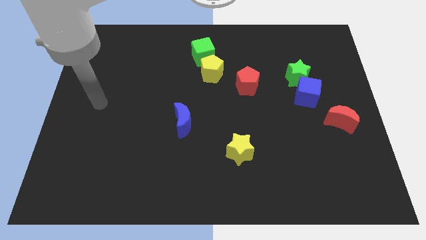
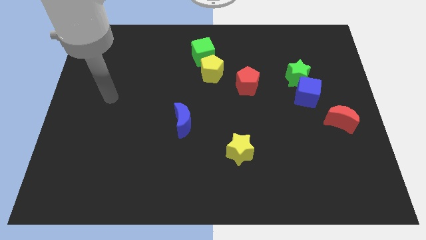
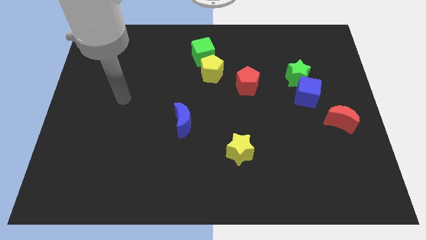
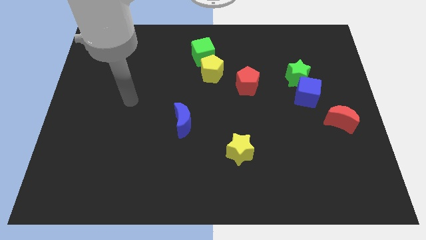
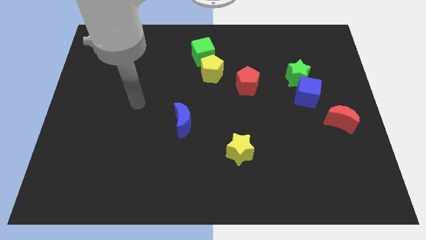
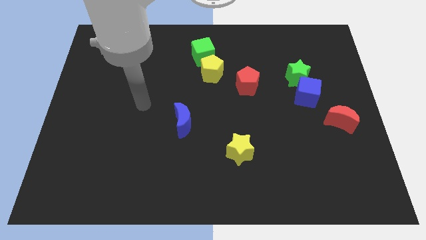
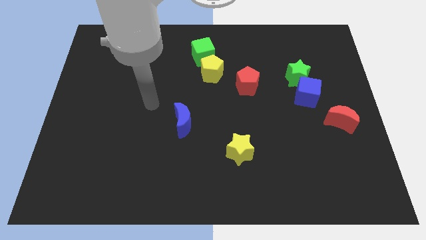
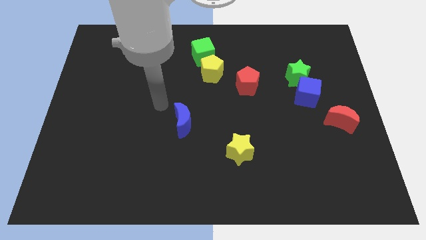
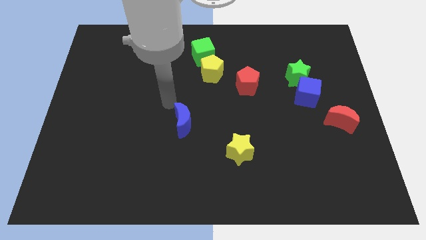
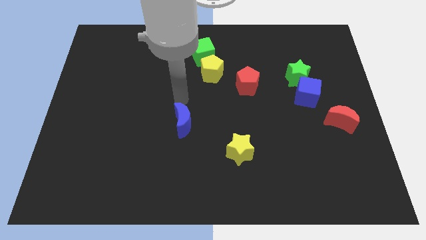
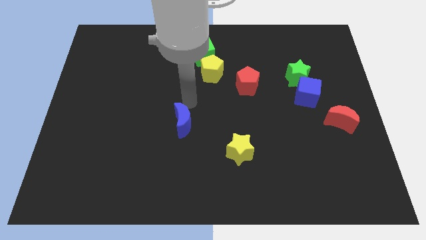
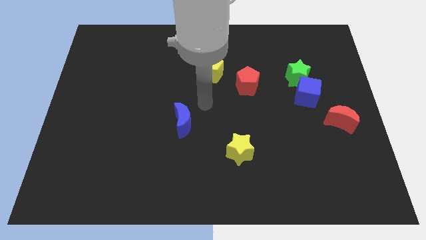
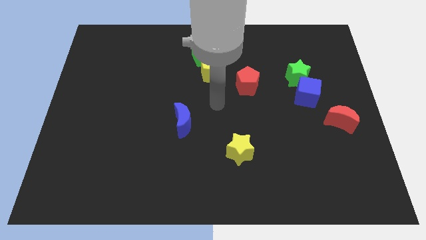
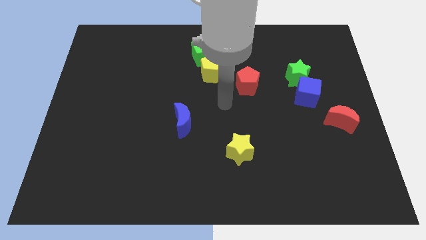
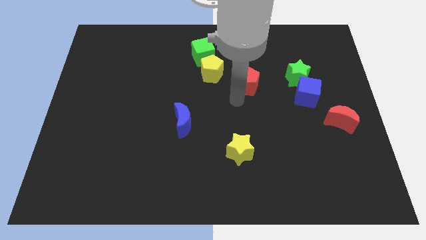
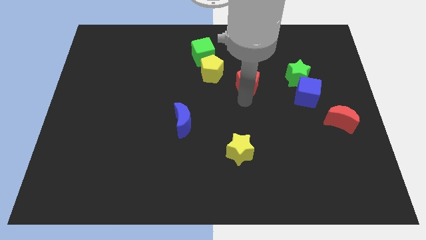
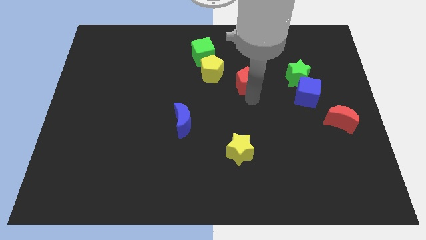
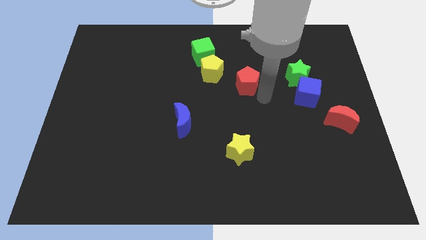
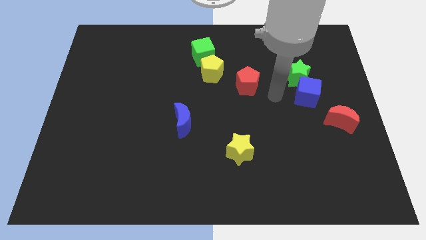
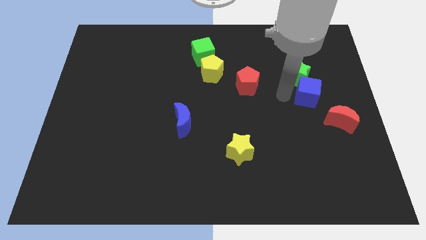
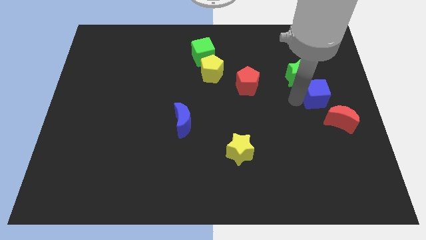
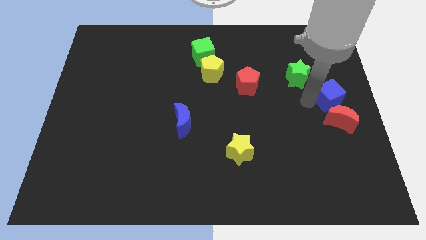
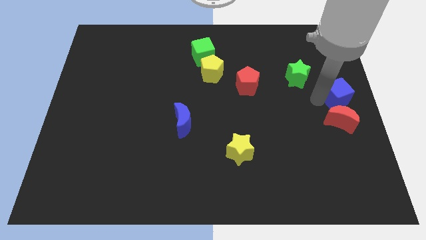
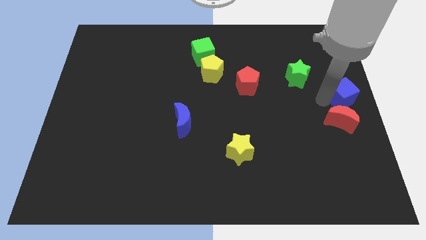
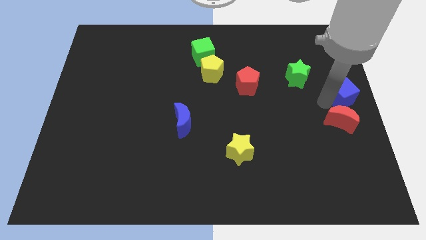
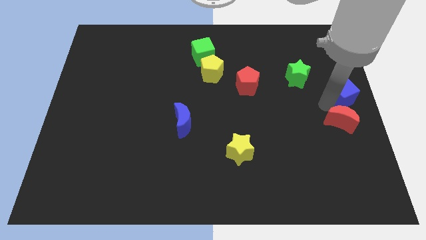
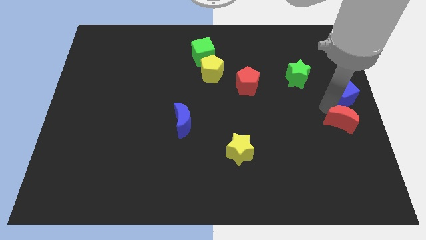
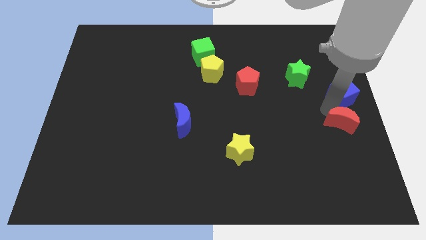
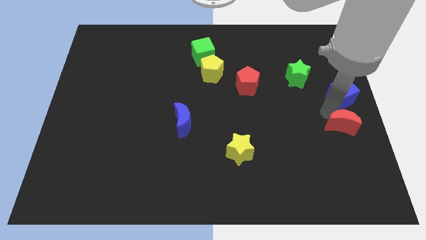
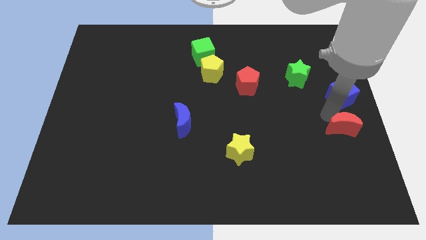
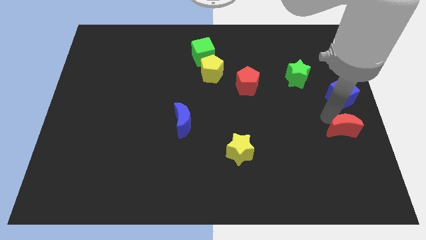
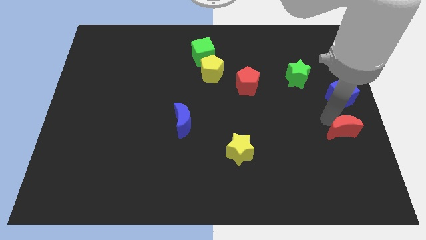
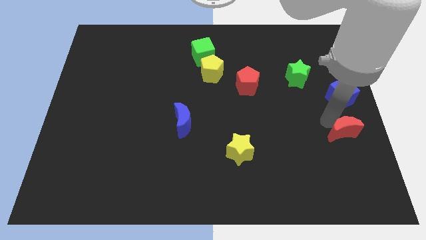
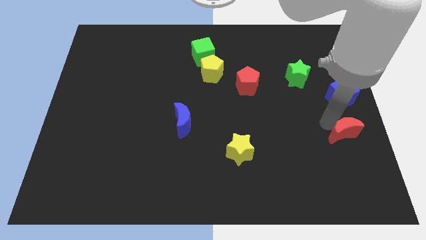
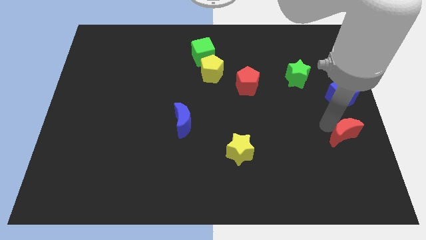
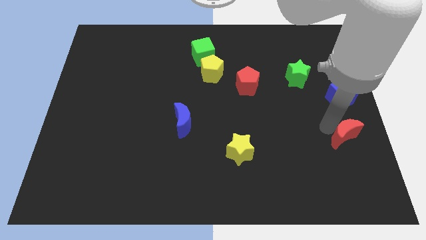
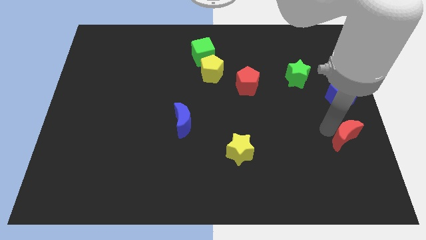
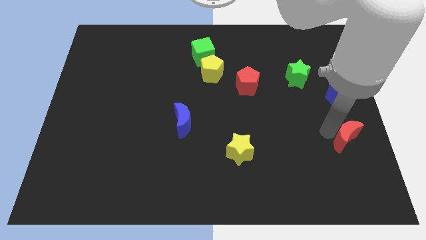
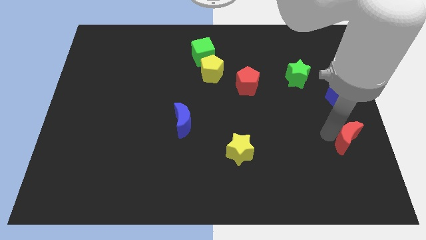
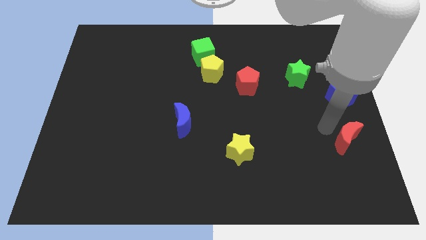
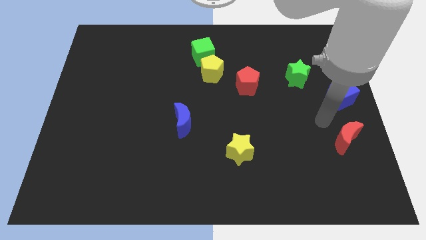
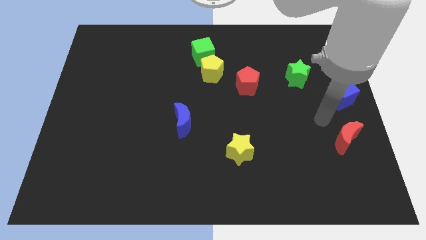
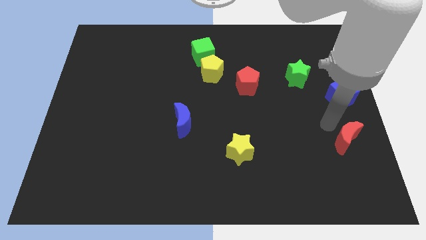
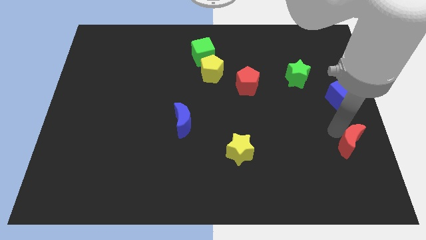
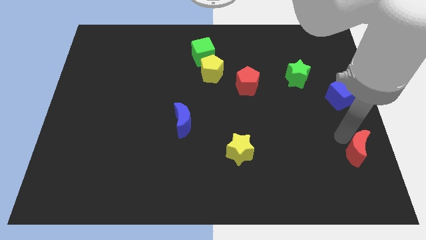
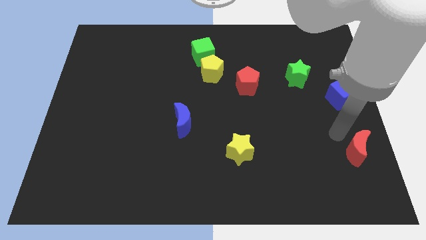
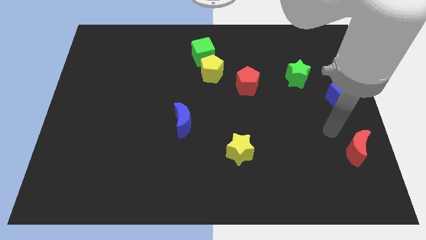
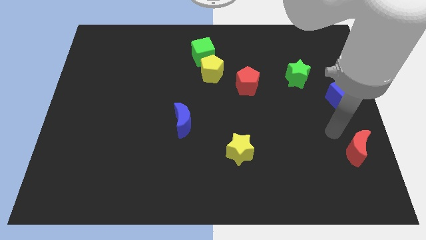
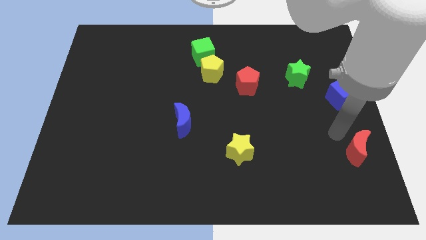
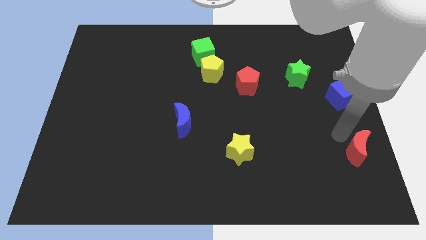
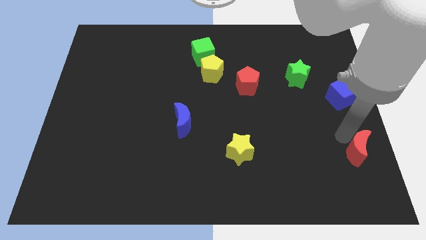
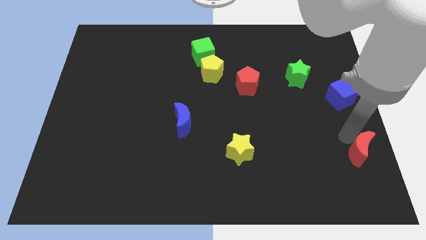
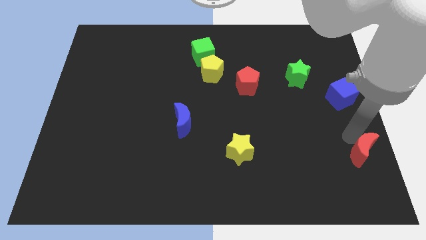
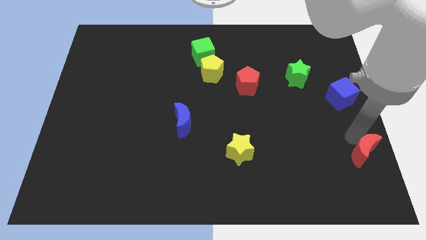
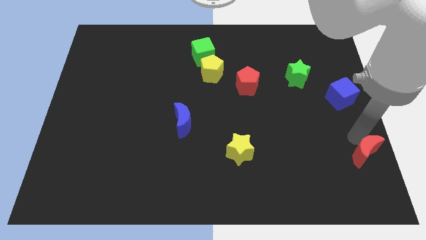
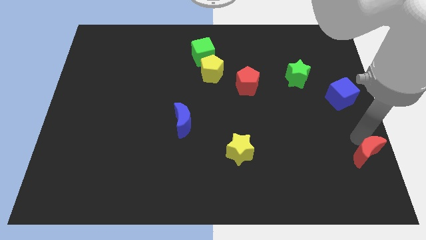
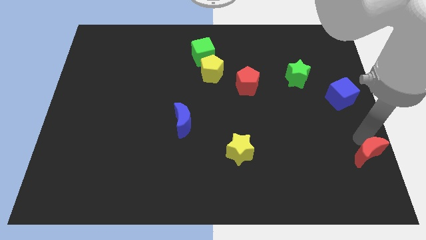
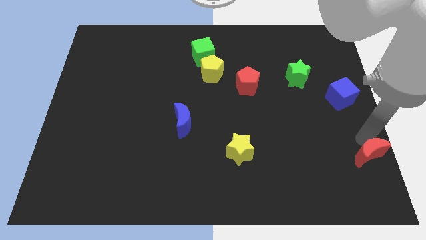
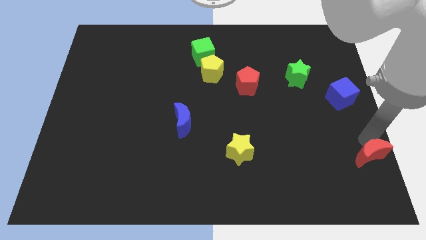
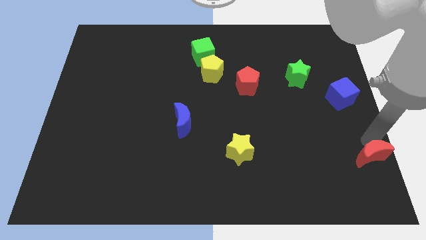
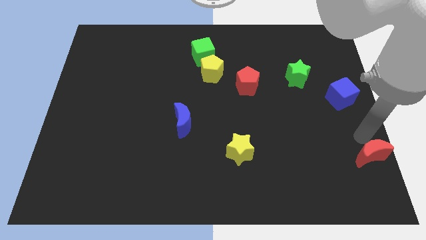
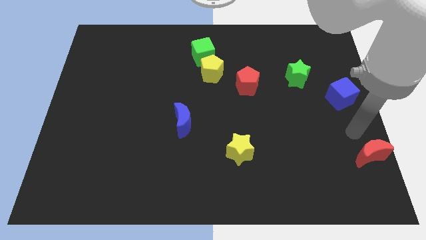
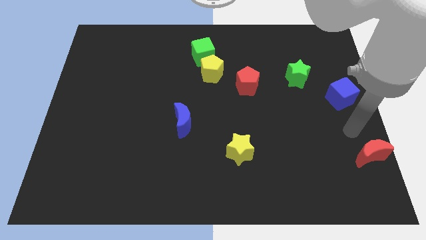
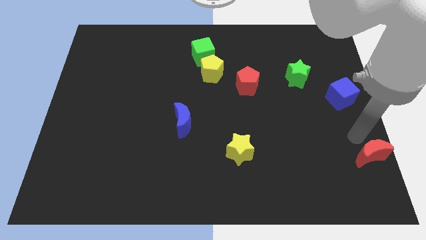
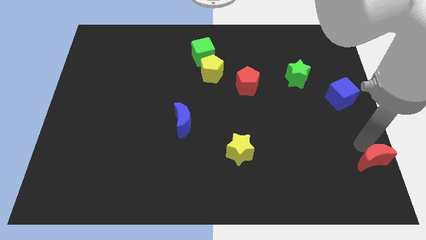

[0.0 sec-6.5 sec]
move the red moon to the lower right corner
